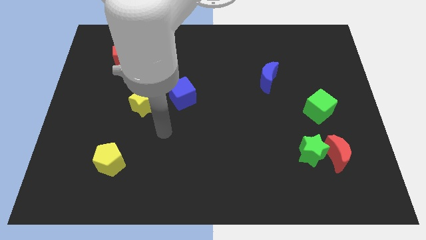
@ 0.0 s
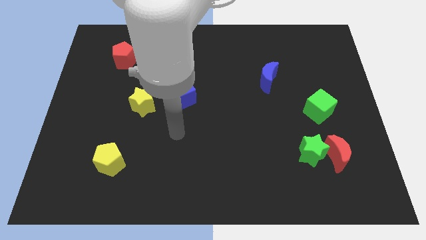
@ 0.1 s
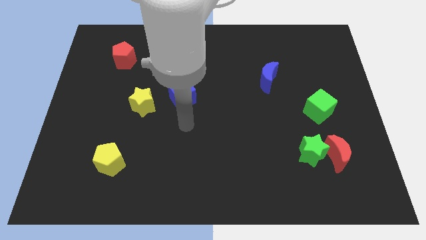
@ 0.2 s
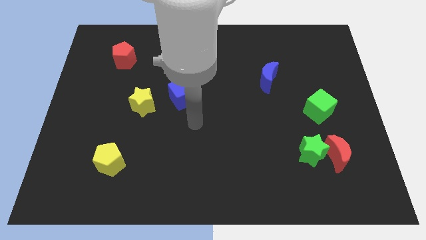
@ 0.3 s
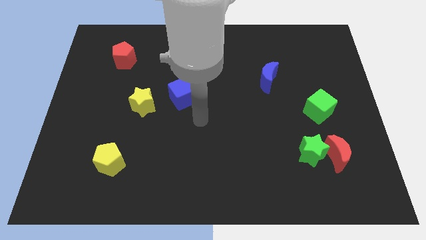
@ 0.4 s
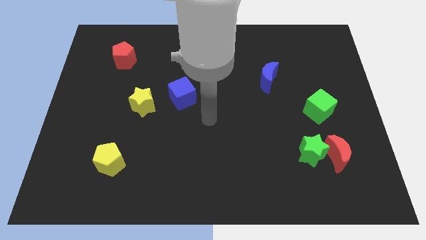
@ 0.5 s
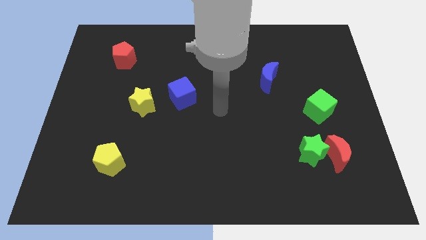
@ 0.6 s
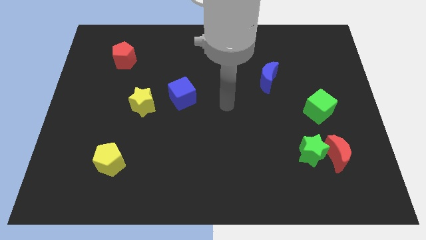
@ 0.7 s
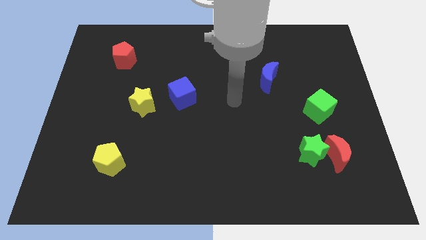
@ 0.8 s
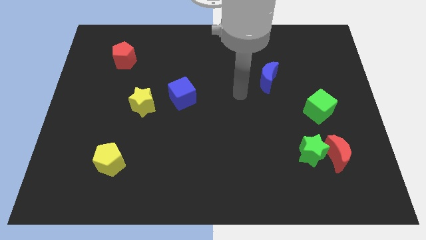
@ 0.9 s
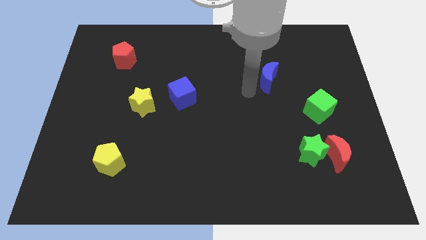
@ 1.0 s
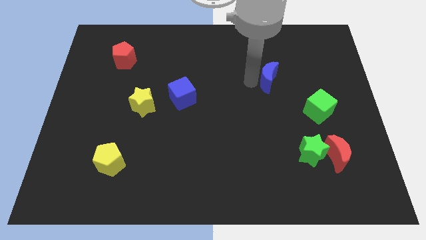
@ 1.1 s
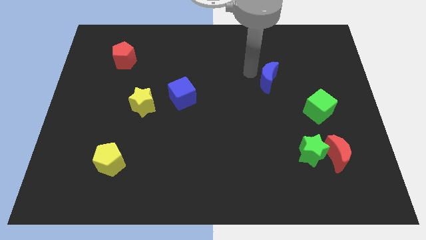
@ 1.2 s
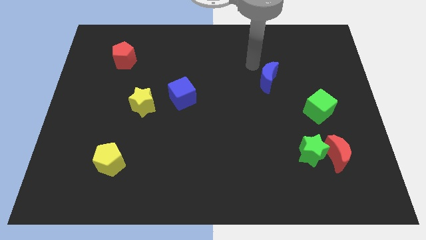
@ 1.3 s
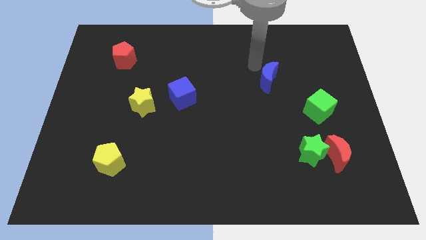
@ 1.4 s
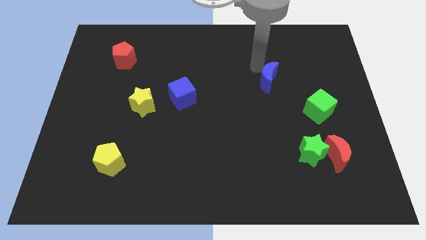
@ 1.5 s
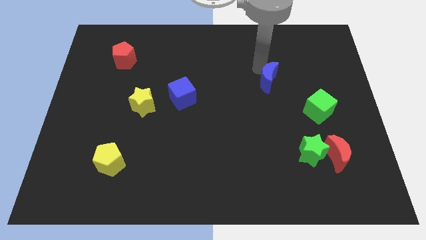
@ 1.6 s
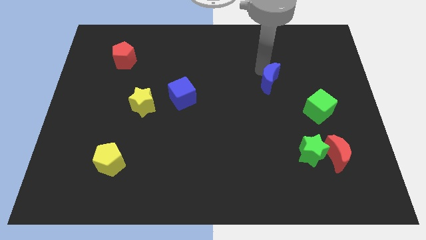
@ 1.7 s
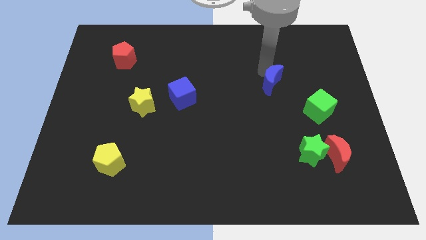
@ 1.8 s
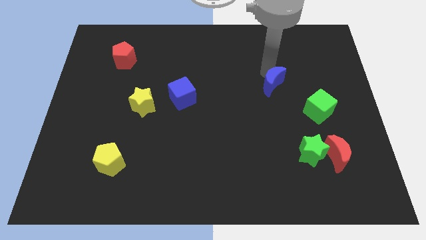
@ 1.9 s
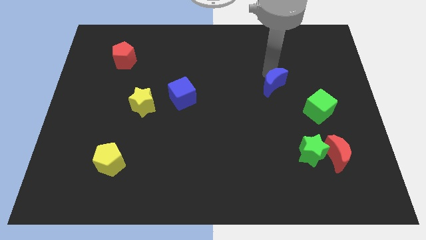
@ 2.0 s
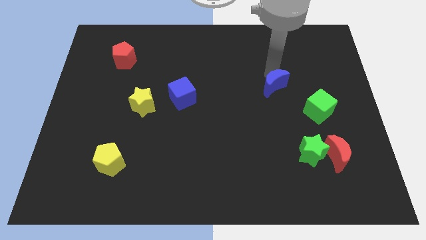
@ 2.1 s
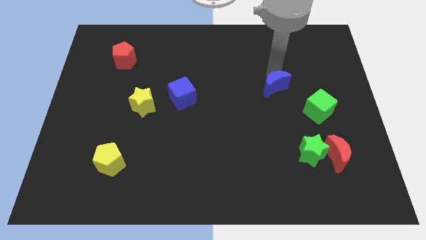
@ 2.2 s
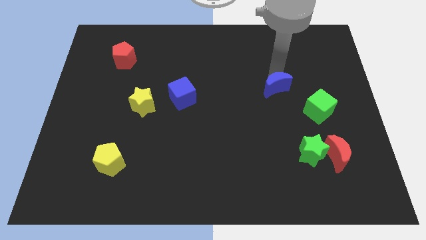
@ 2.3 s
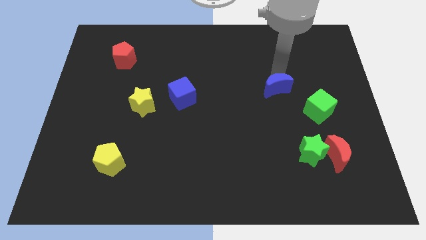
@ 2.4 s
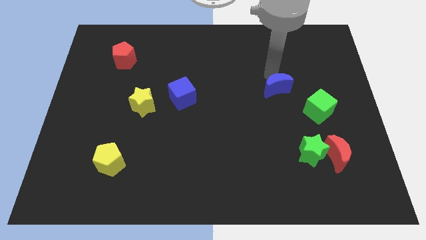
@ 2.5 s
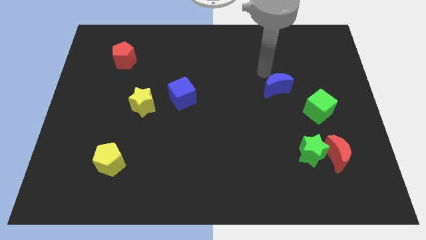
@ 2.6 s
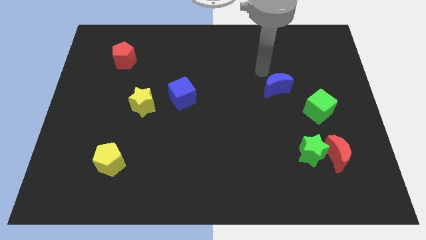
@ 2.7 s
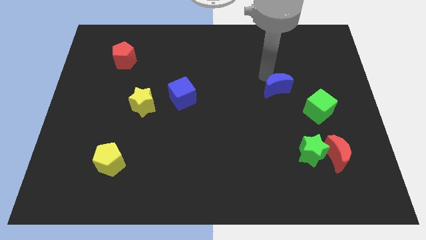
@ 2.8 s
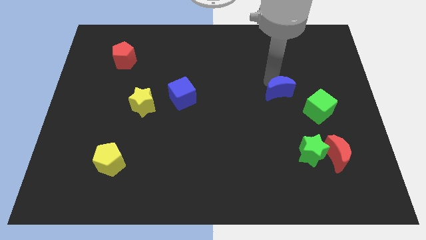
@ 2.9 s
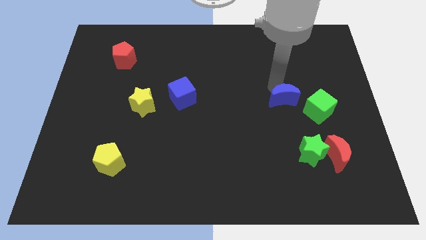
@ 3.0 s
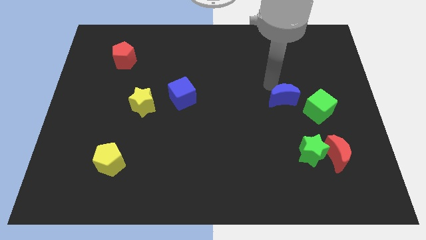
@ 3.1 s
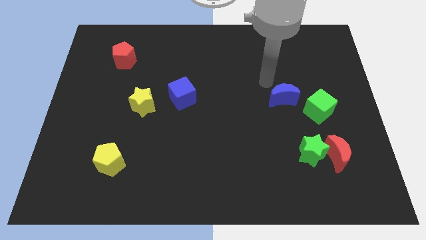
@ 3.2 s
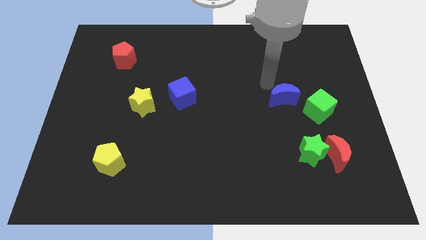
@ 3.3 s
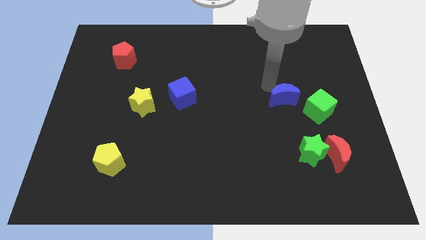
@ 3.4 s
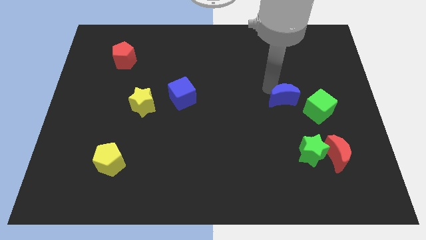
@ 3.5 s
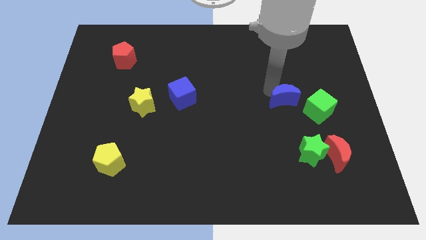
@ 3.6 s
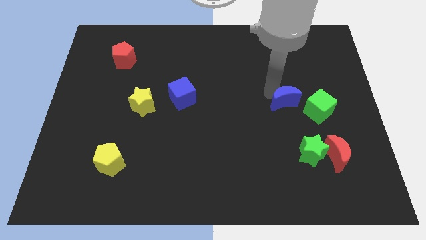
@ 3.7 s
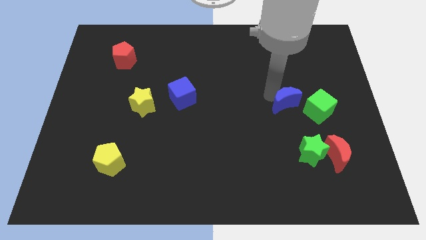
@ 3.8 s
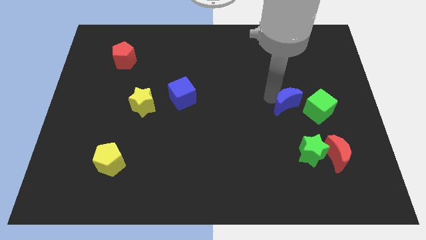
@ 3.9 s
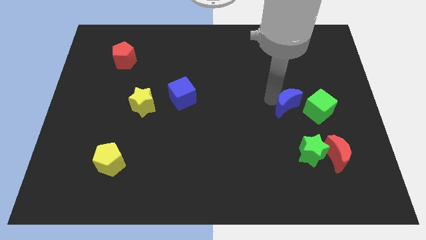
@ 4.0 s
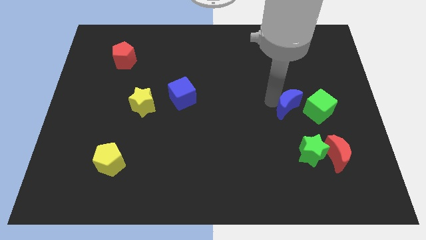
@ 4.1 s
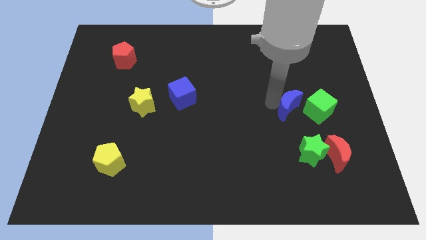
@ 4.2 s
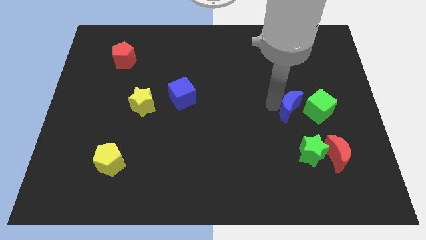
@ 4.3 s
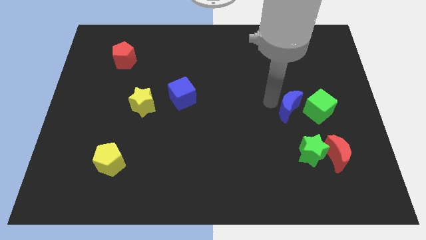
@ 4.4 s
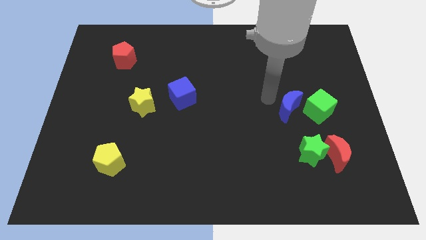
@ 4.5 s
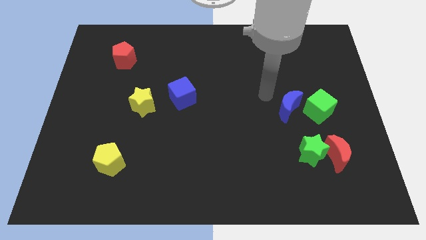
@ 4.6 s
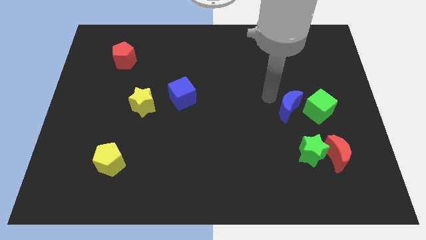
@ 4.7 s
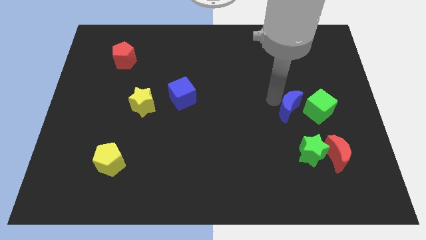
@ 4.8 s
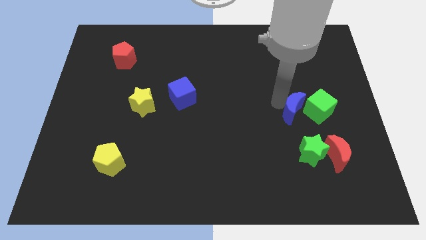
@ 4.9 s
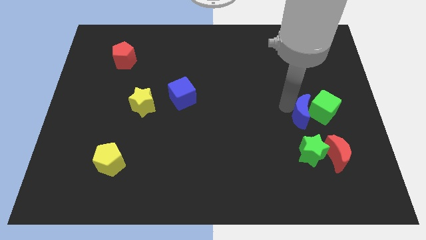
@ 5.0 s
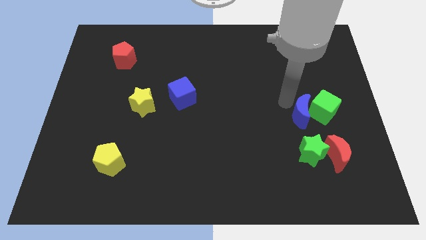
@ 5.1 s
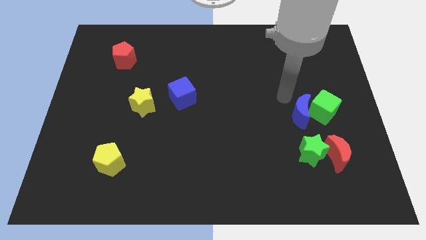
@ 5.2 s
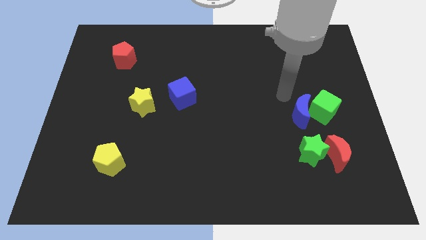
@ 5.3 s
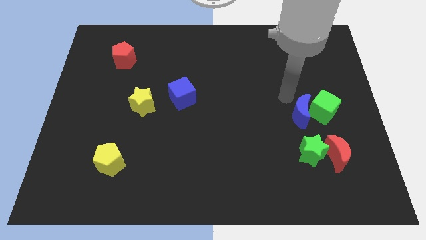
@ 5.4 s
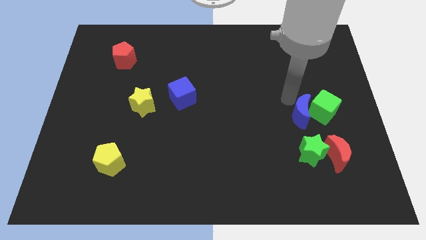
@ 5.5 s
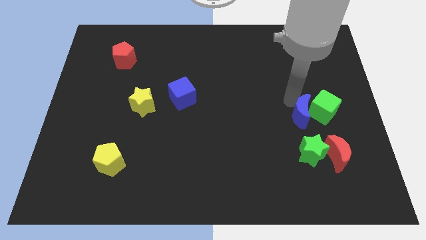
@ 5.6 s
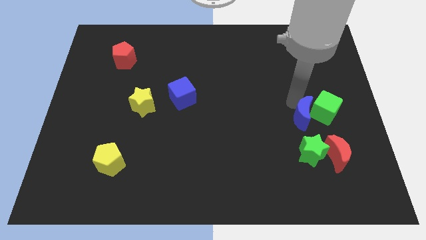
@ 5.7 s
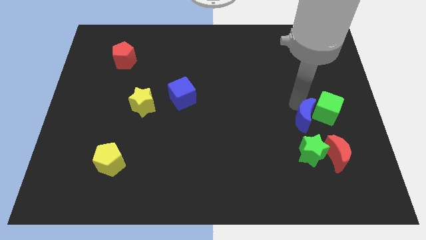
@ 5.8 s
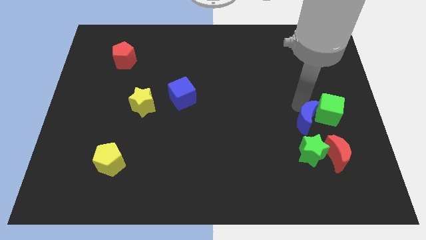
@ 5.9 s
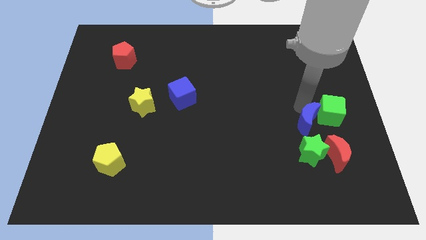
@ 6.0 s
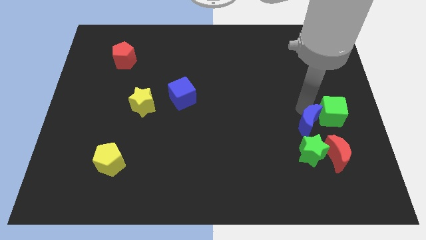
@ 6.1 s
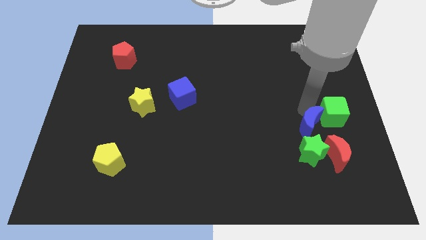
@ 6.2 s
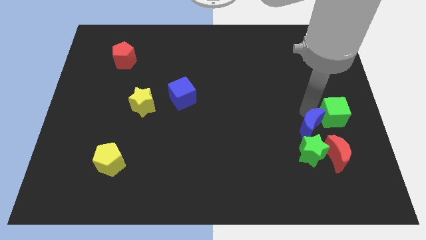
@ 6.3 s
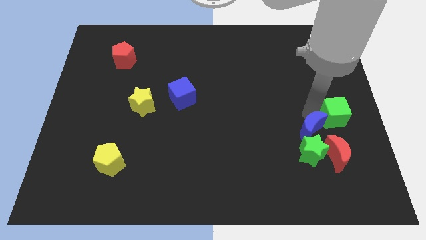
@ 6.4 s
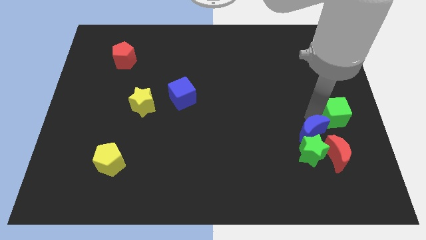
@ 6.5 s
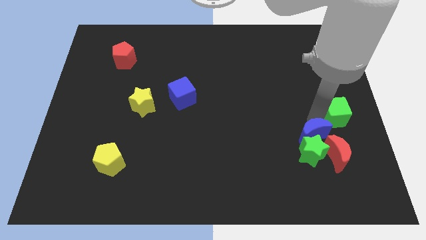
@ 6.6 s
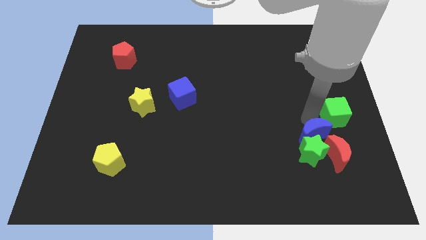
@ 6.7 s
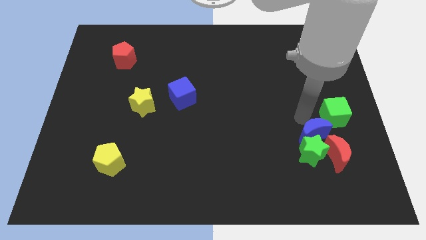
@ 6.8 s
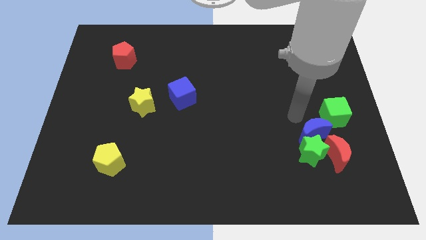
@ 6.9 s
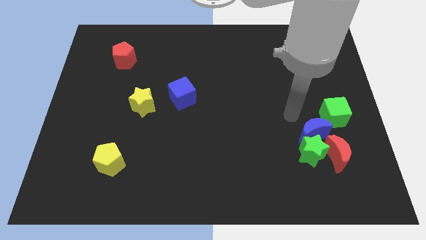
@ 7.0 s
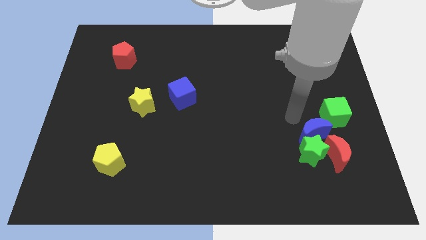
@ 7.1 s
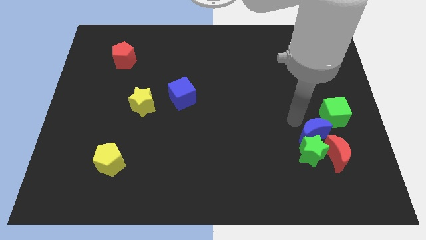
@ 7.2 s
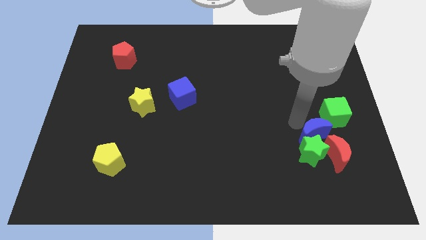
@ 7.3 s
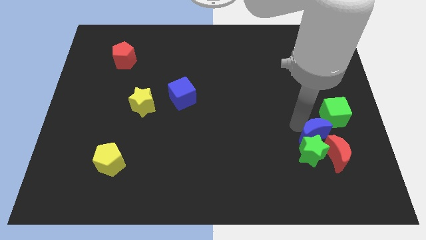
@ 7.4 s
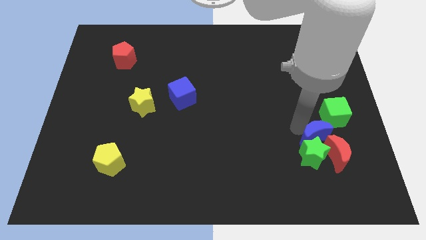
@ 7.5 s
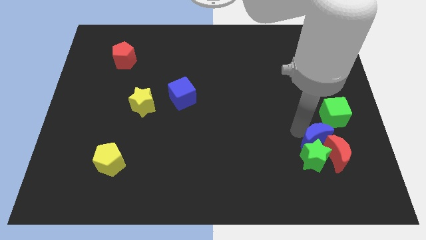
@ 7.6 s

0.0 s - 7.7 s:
move the blue moon towards the red moon
